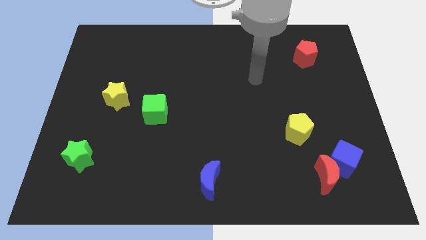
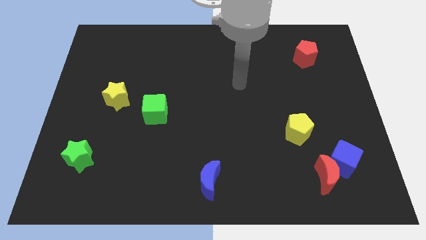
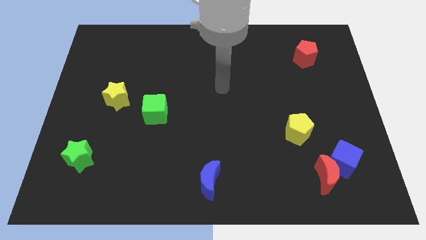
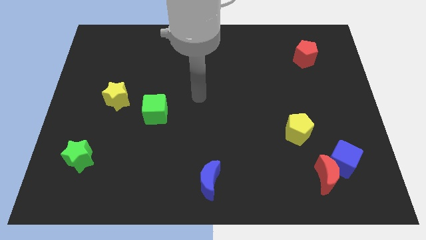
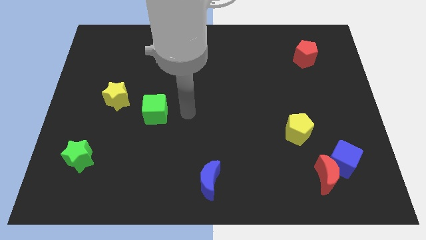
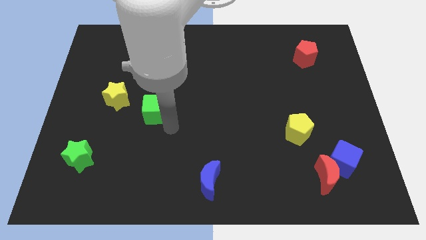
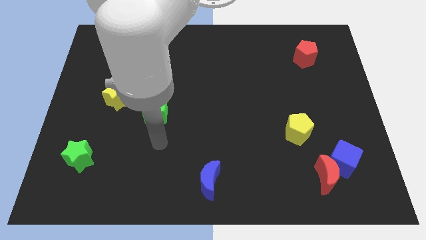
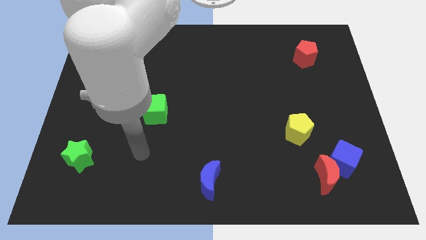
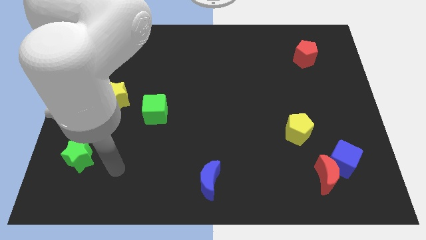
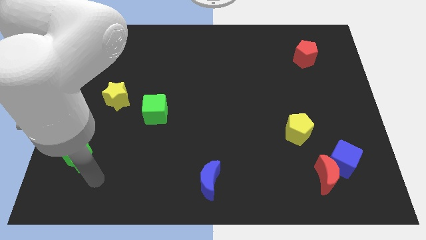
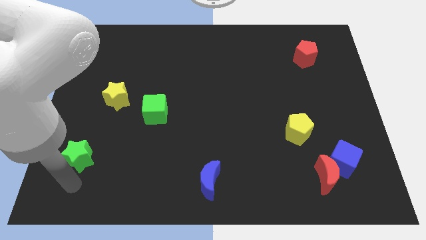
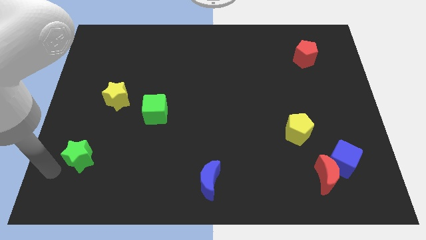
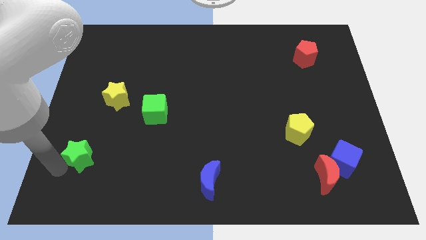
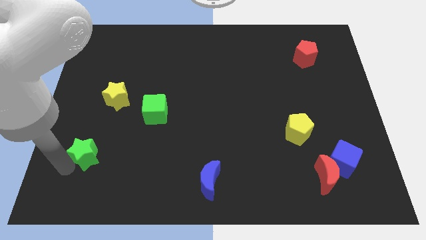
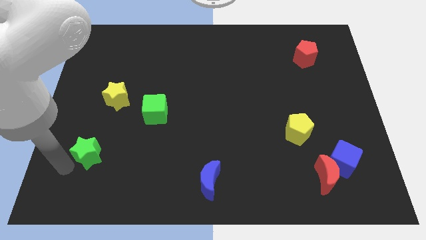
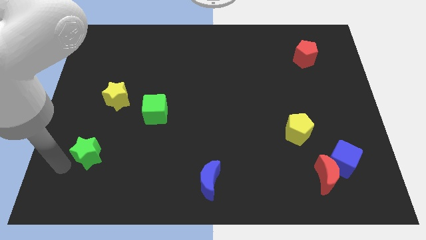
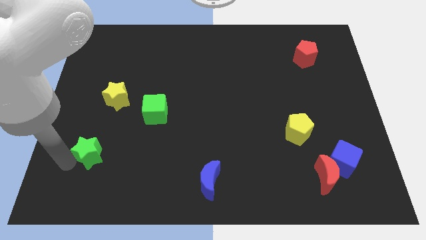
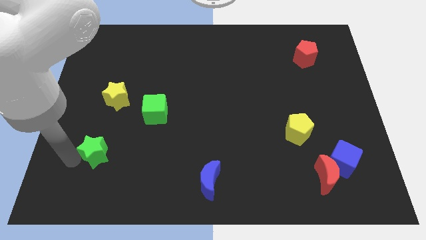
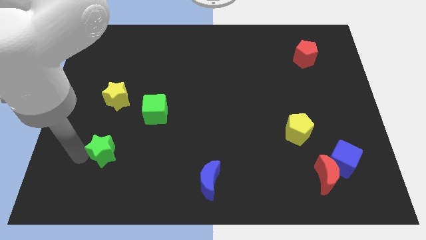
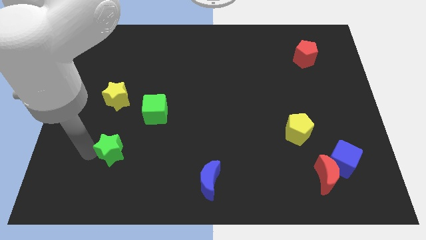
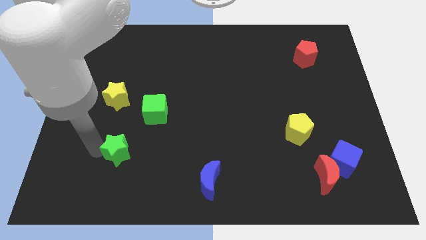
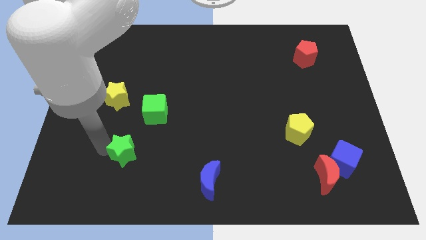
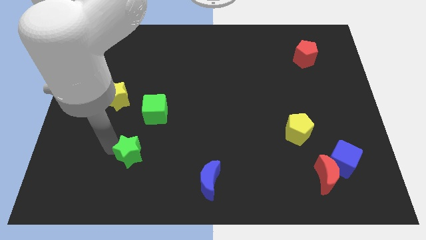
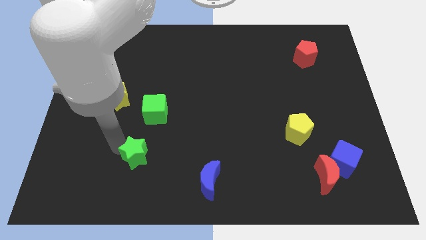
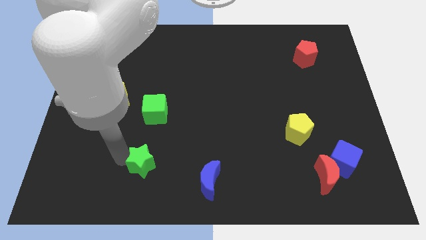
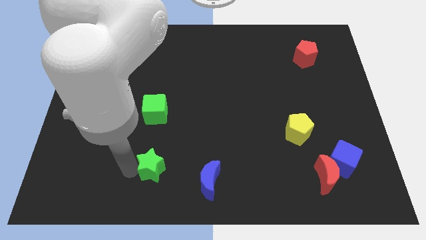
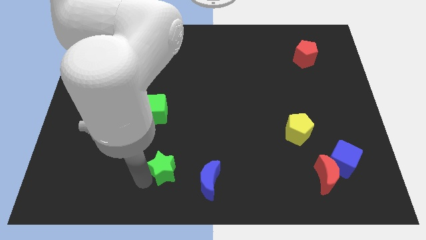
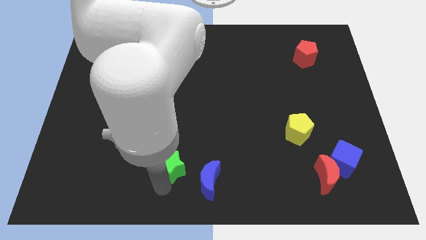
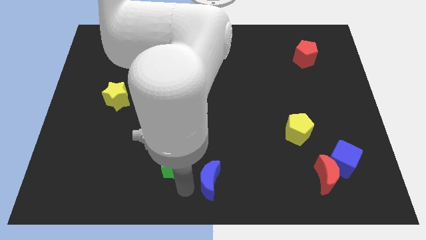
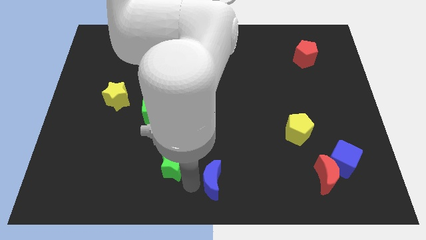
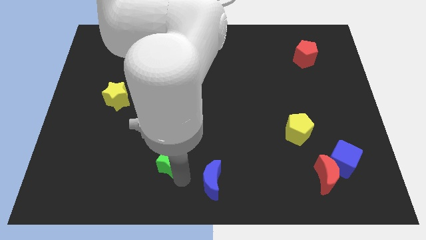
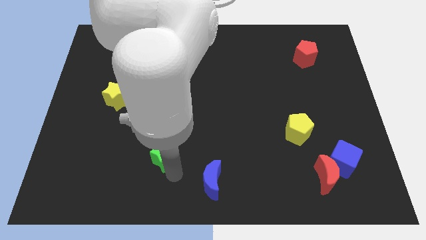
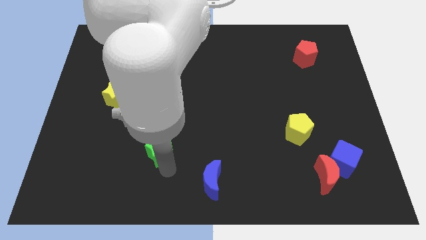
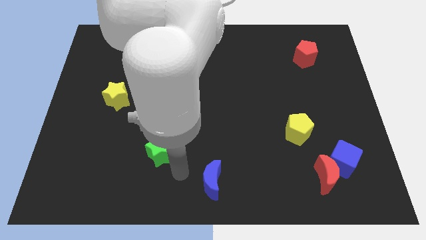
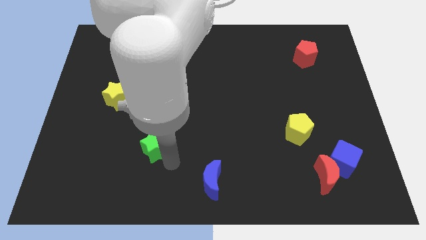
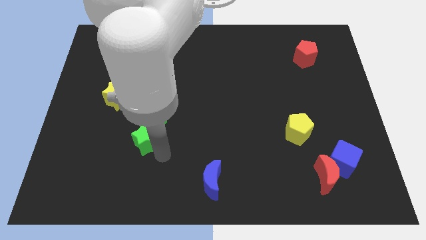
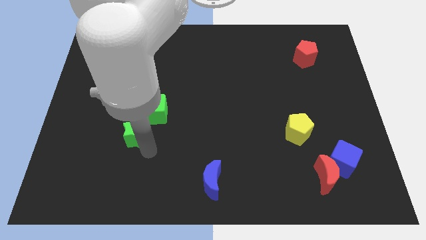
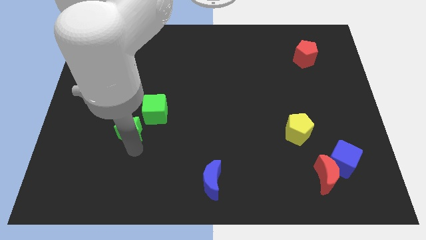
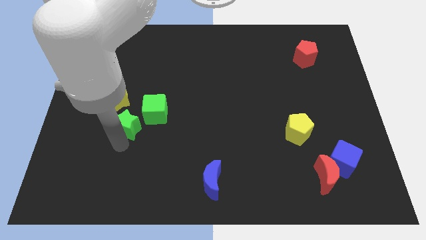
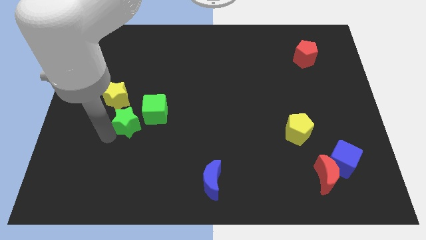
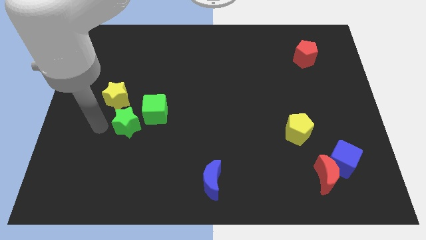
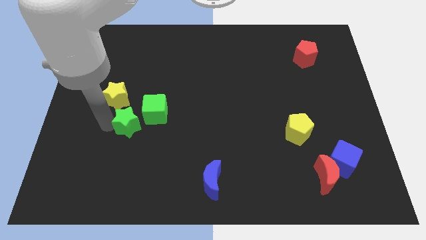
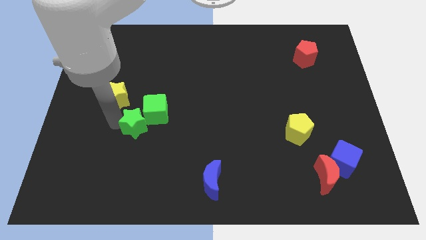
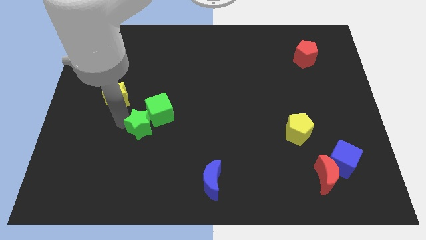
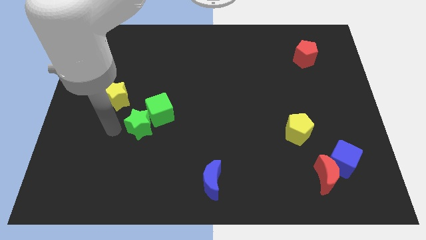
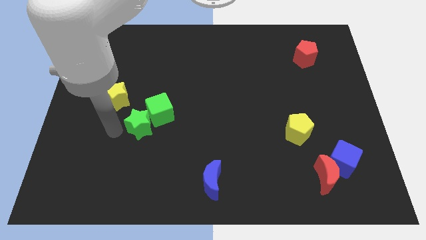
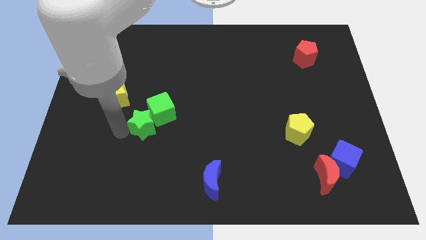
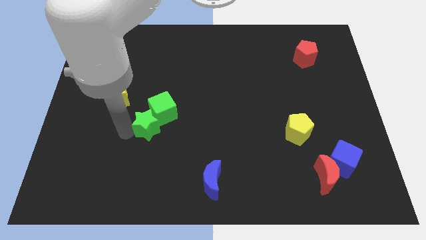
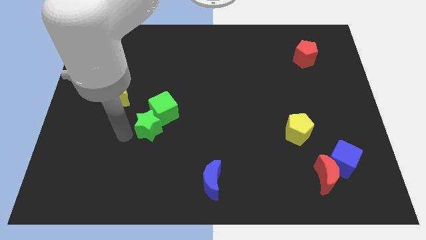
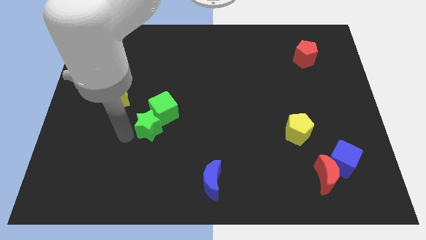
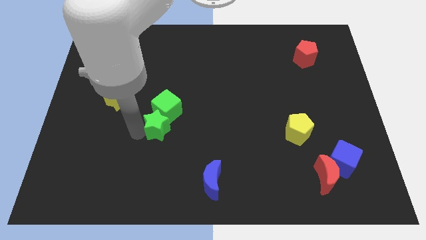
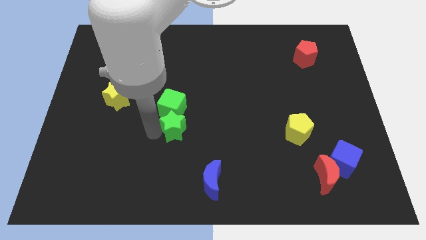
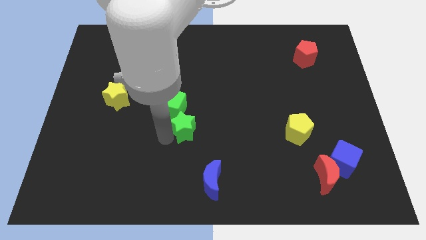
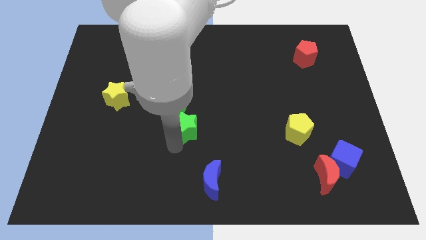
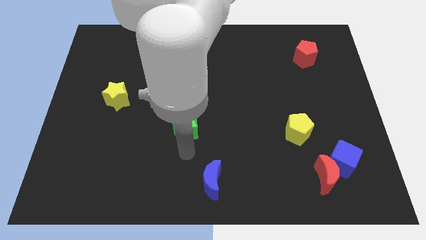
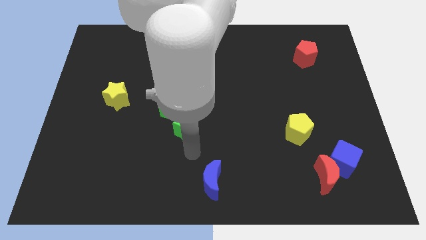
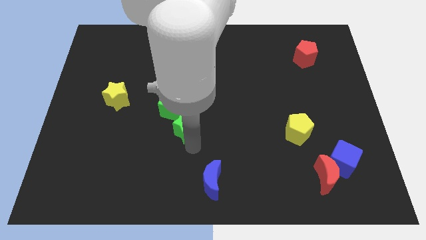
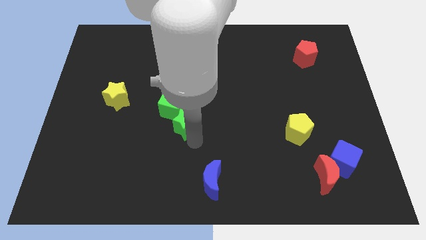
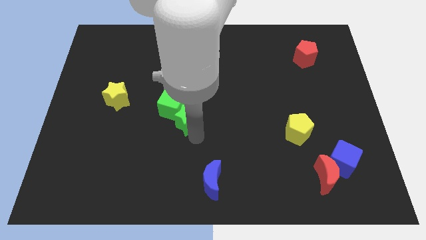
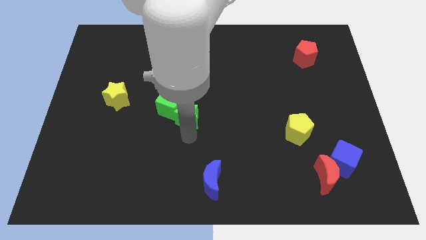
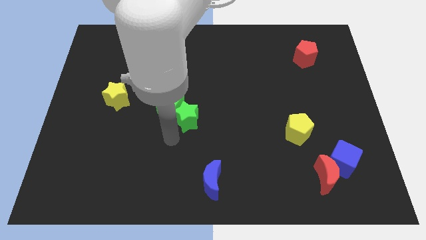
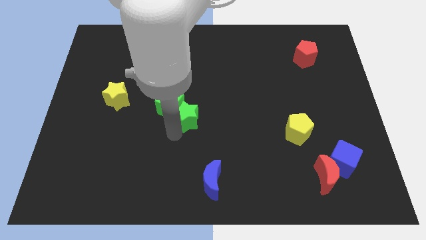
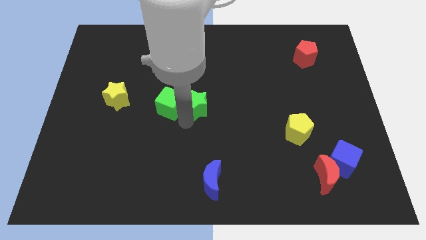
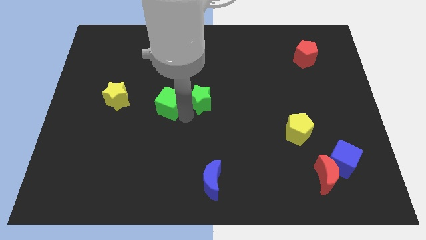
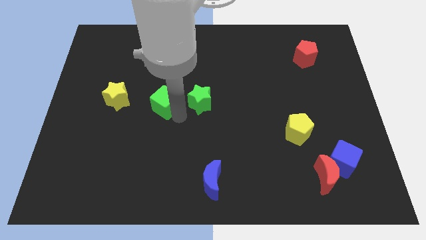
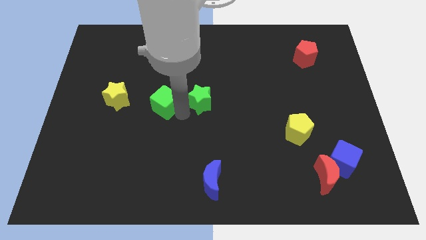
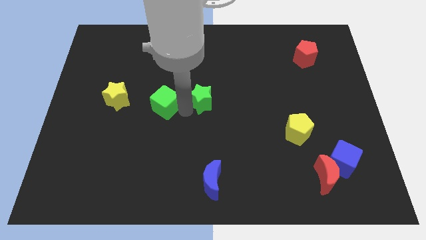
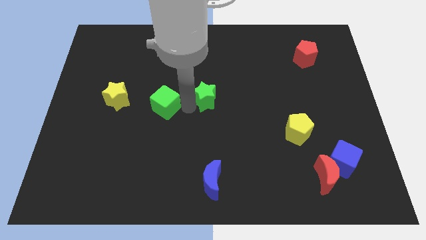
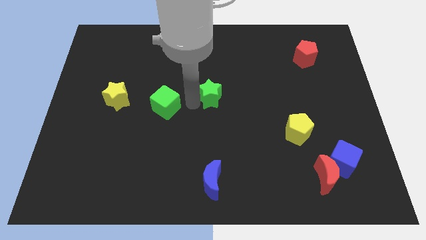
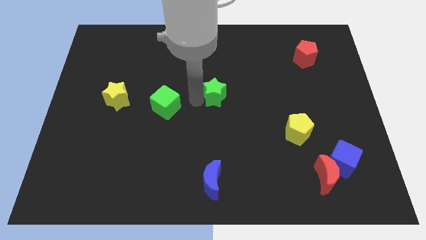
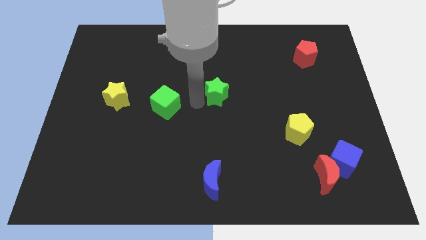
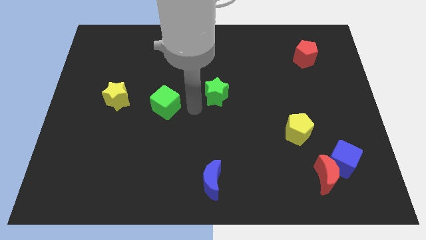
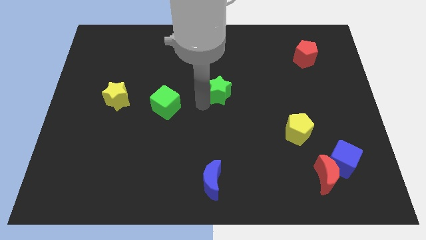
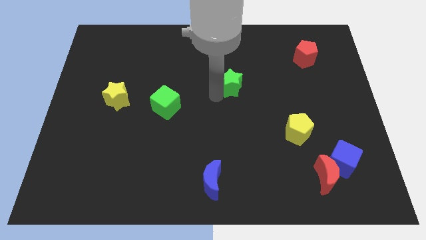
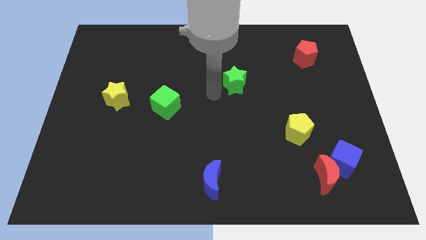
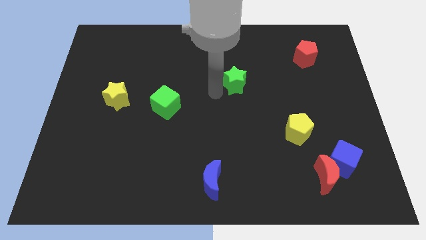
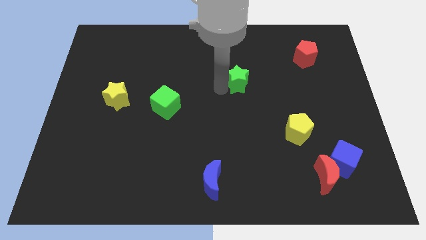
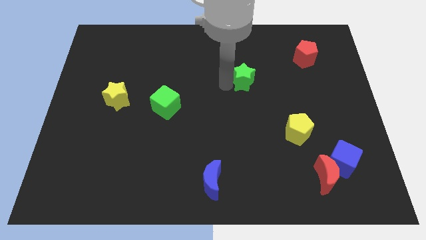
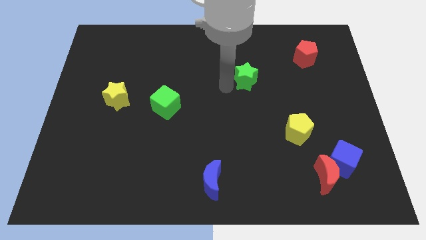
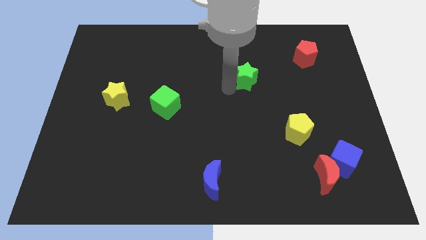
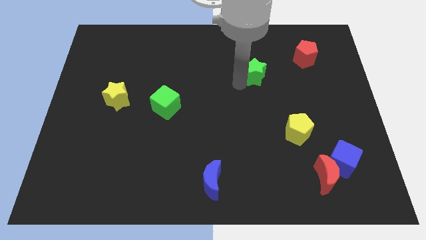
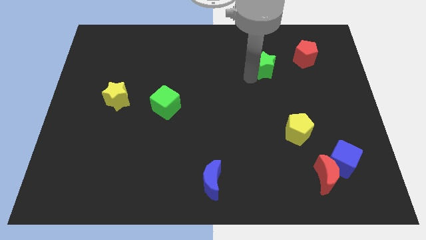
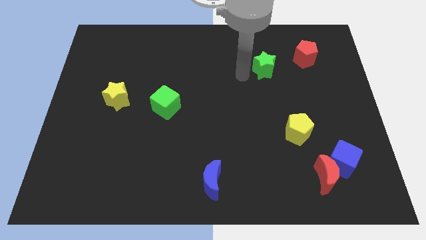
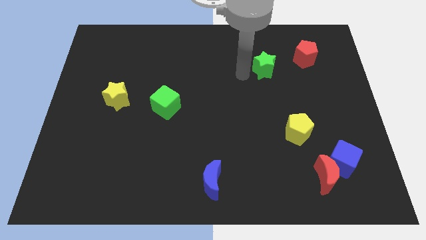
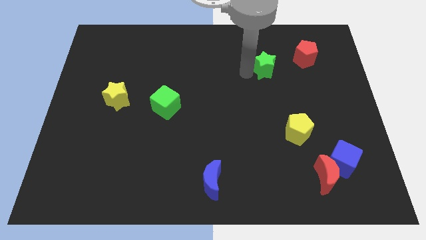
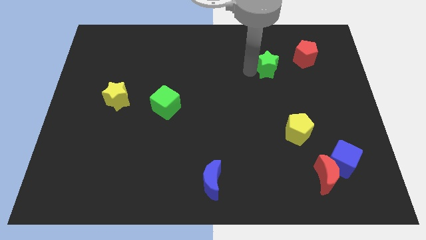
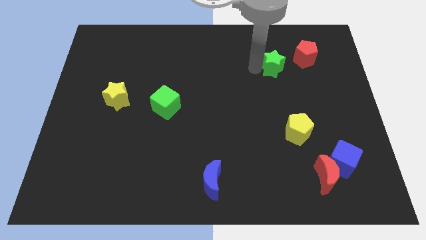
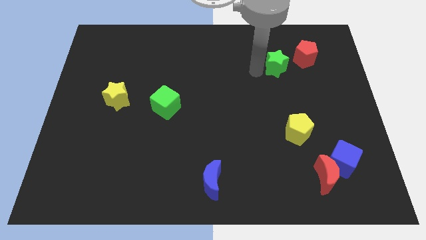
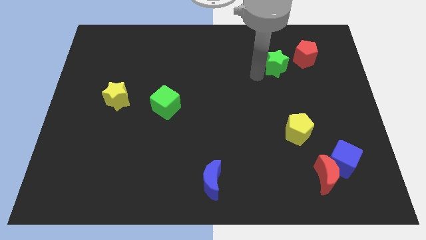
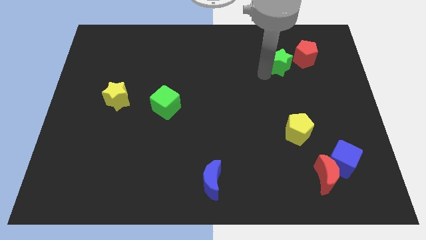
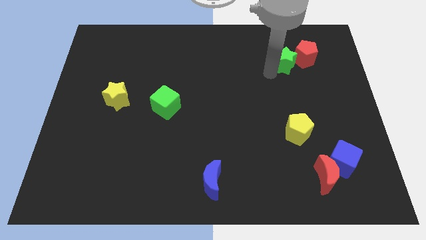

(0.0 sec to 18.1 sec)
move the green star towards the red pentagon
